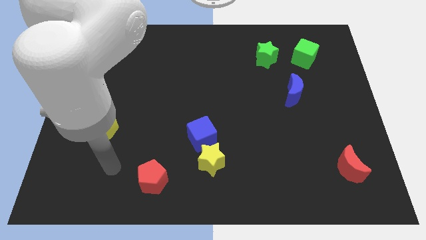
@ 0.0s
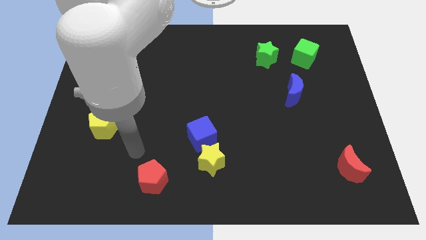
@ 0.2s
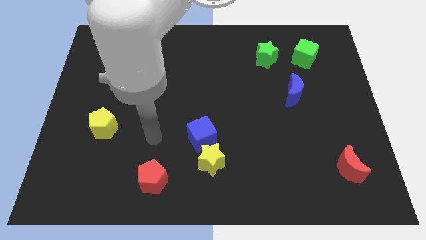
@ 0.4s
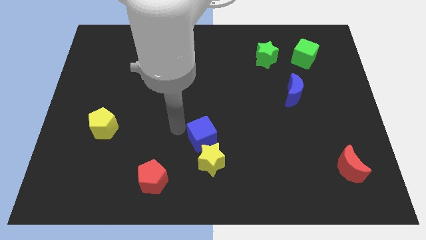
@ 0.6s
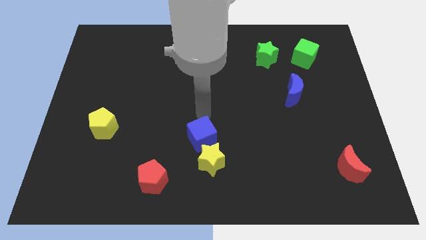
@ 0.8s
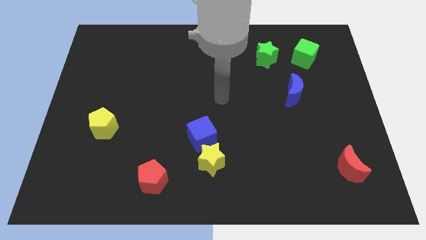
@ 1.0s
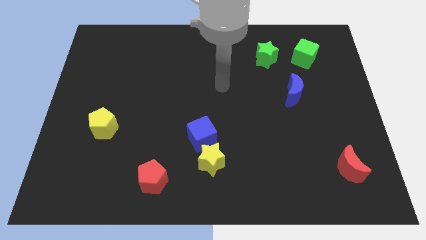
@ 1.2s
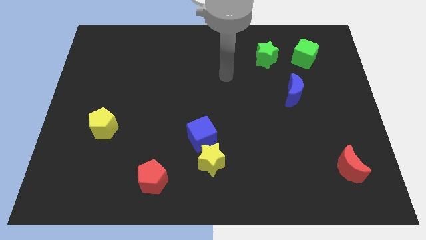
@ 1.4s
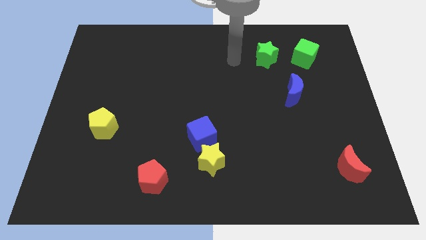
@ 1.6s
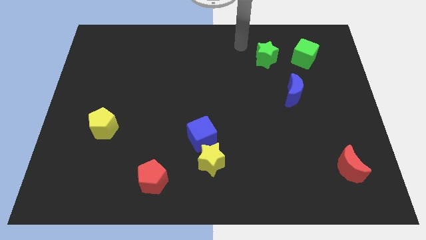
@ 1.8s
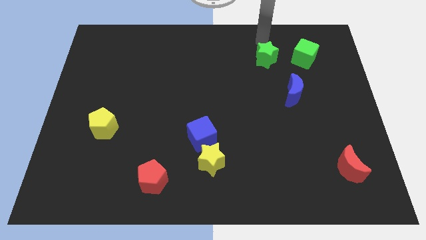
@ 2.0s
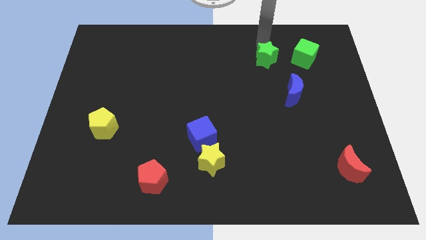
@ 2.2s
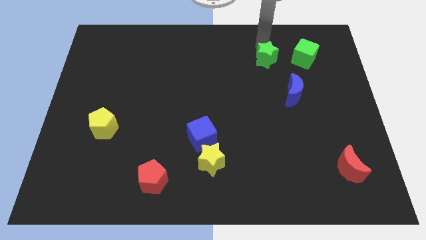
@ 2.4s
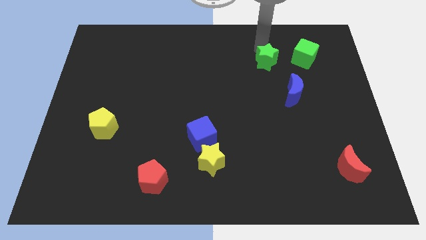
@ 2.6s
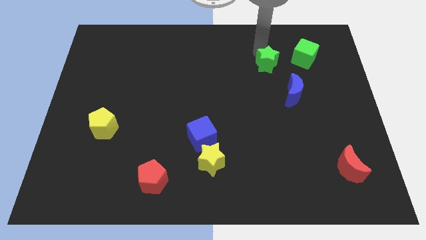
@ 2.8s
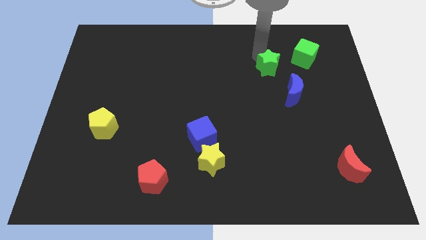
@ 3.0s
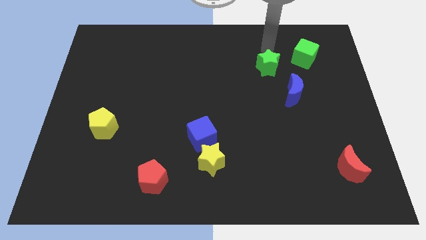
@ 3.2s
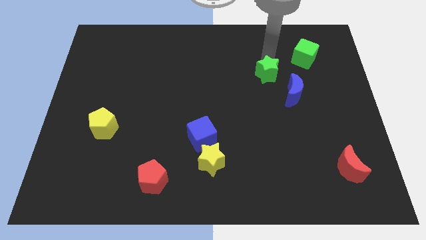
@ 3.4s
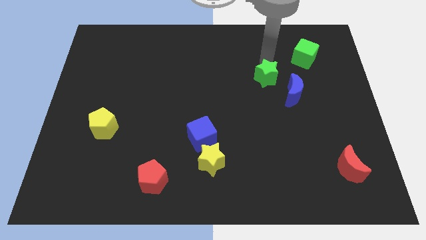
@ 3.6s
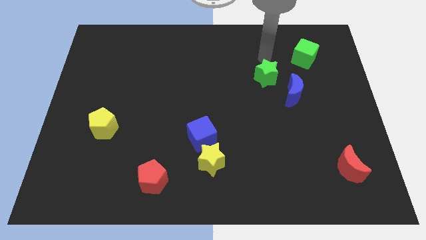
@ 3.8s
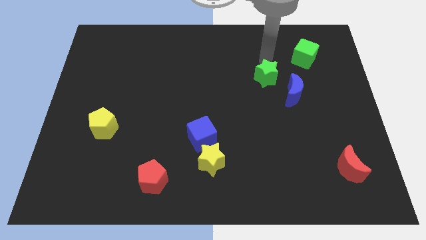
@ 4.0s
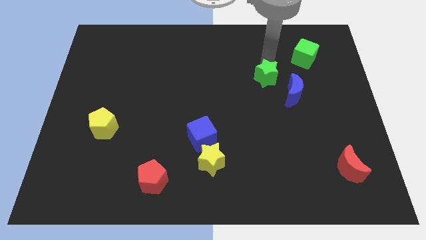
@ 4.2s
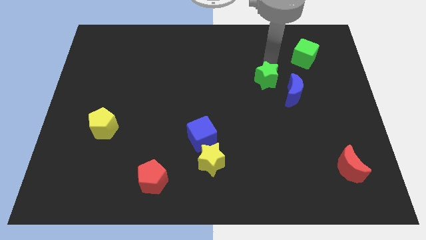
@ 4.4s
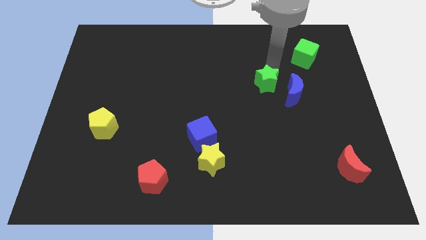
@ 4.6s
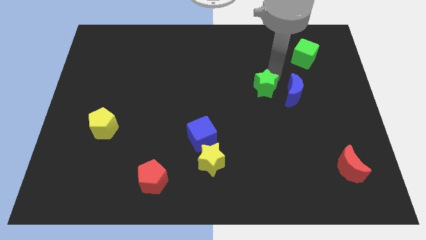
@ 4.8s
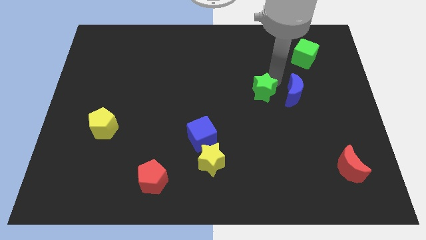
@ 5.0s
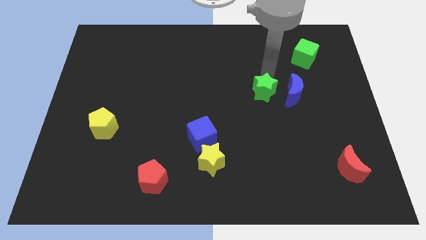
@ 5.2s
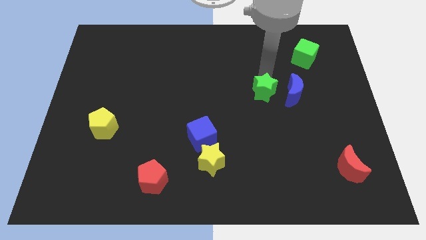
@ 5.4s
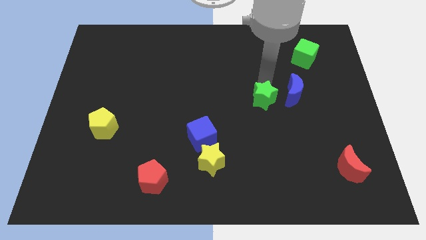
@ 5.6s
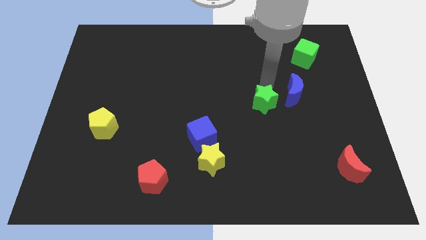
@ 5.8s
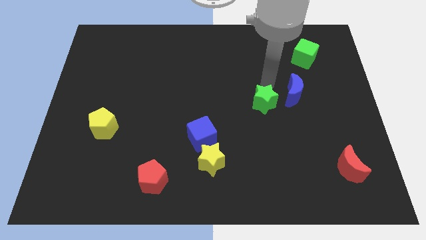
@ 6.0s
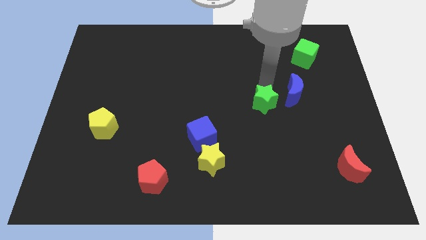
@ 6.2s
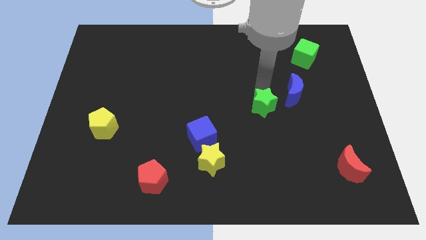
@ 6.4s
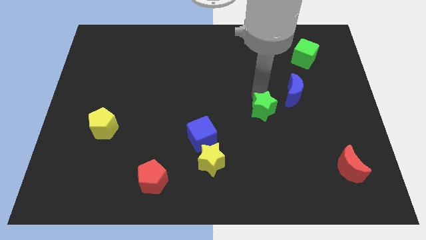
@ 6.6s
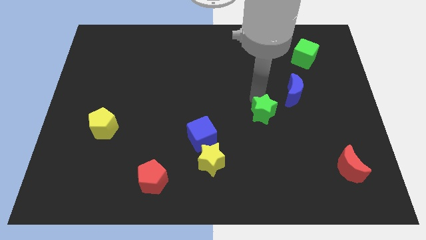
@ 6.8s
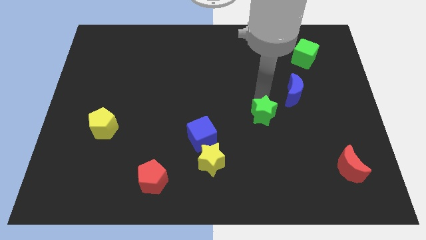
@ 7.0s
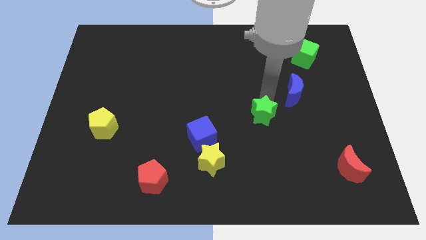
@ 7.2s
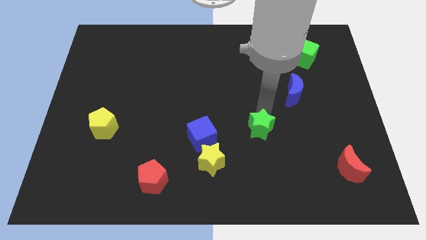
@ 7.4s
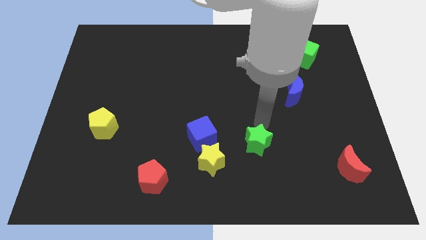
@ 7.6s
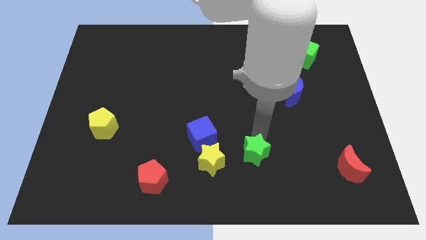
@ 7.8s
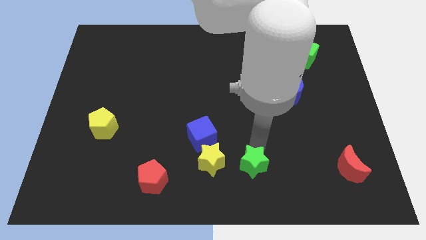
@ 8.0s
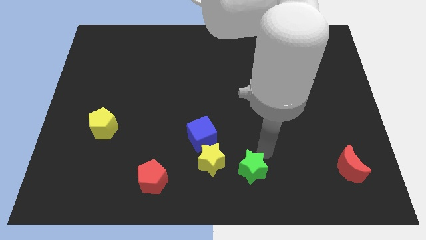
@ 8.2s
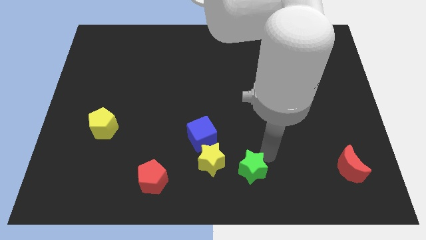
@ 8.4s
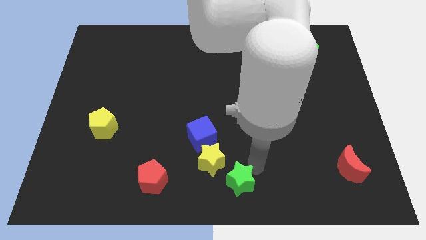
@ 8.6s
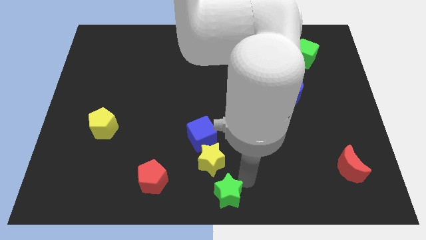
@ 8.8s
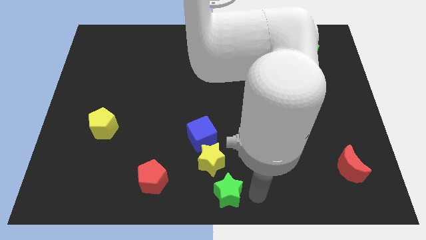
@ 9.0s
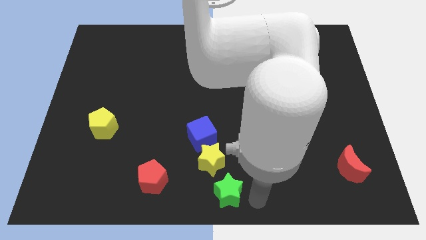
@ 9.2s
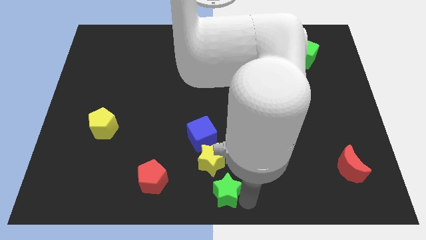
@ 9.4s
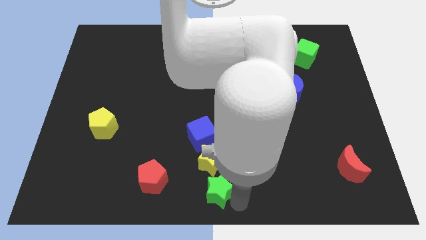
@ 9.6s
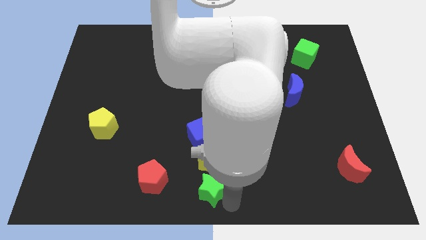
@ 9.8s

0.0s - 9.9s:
slide the green star to the bottom left side of the yellow star

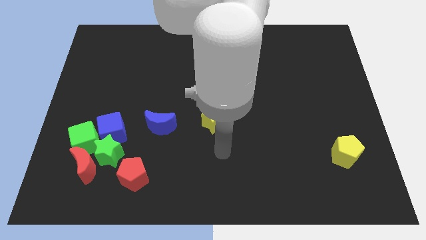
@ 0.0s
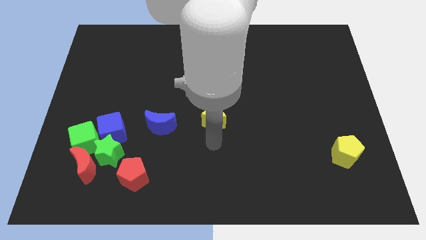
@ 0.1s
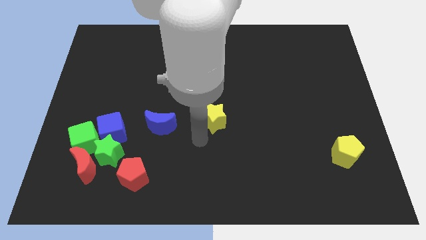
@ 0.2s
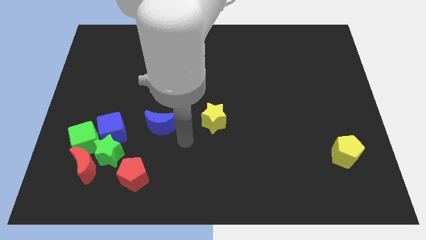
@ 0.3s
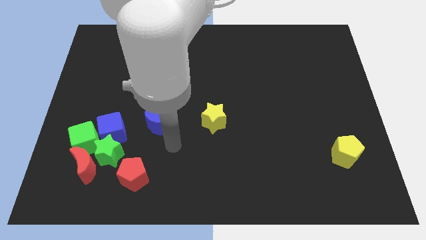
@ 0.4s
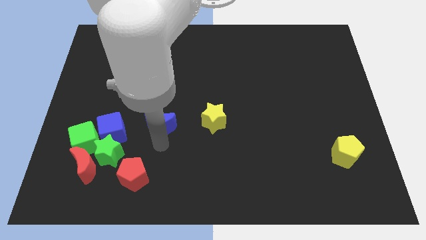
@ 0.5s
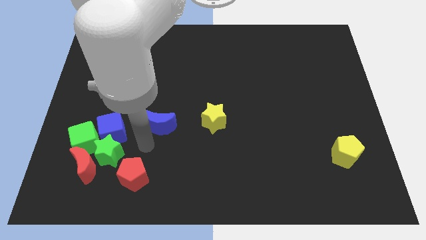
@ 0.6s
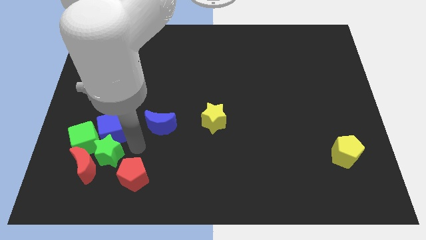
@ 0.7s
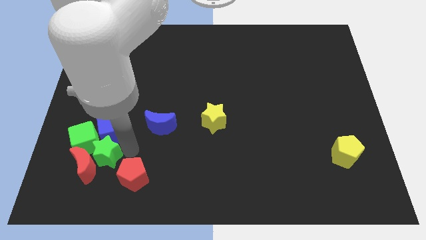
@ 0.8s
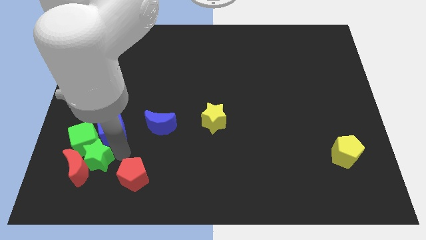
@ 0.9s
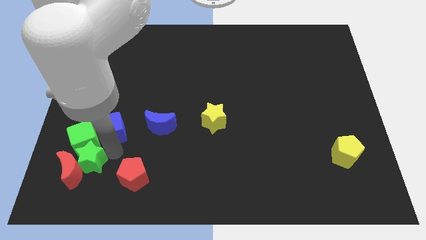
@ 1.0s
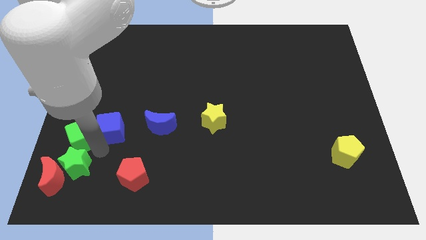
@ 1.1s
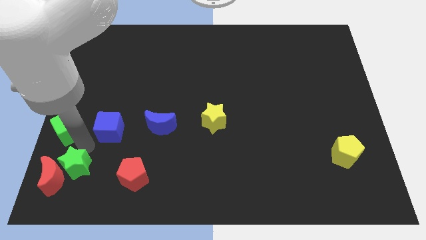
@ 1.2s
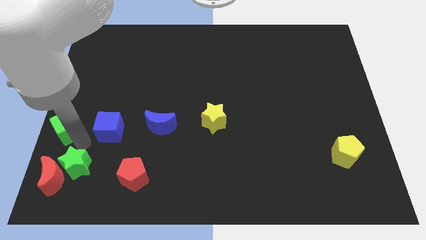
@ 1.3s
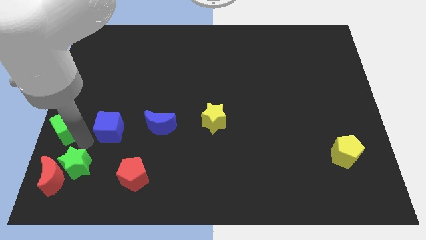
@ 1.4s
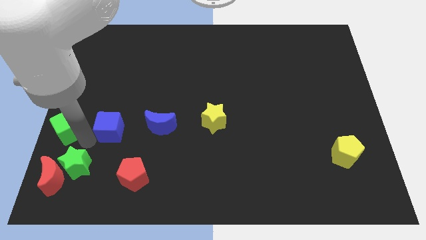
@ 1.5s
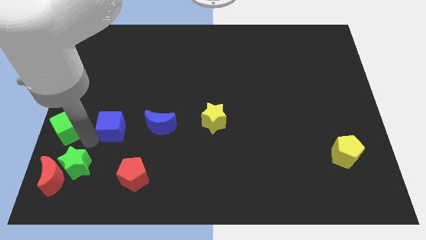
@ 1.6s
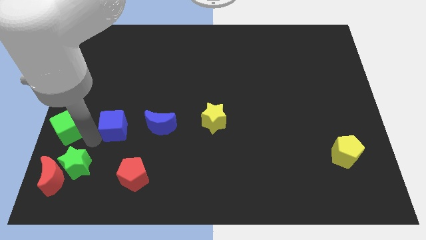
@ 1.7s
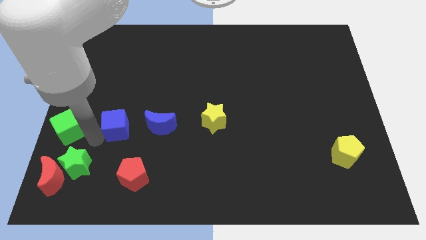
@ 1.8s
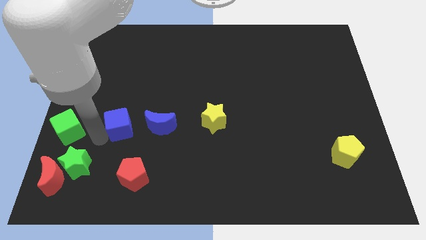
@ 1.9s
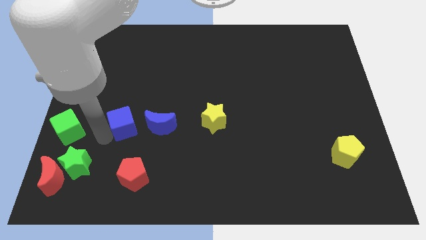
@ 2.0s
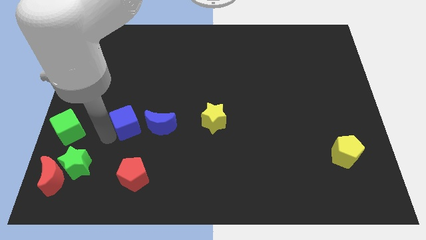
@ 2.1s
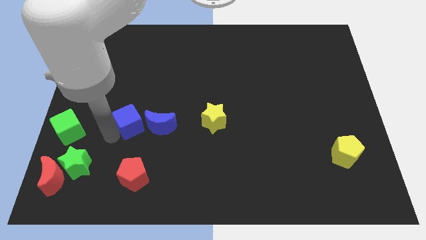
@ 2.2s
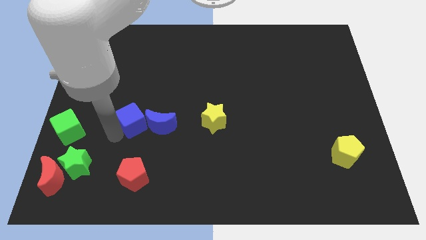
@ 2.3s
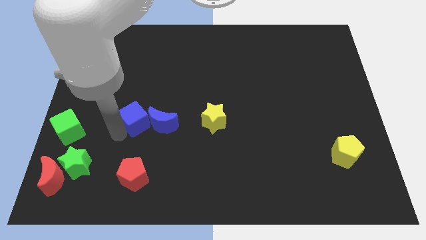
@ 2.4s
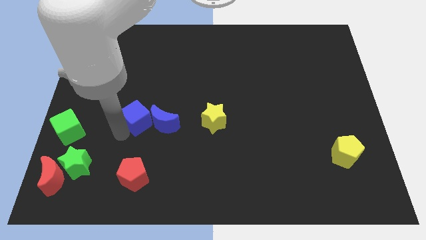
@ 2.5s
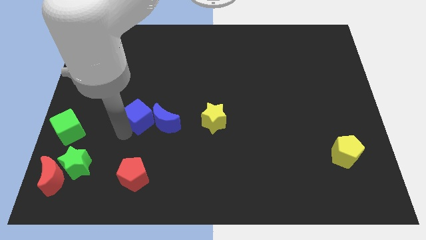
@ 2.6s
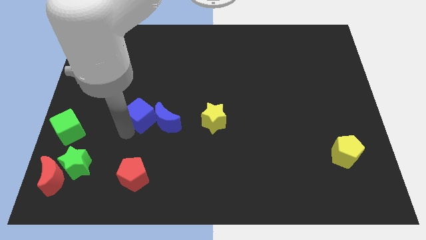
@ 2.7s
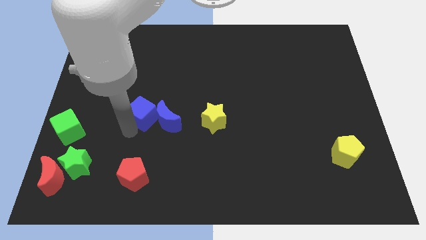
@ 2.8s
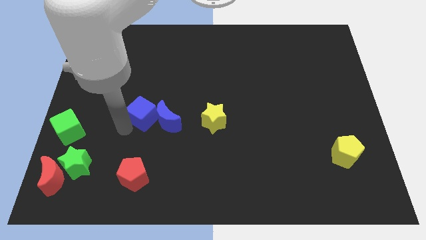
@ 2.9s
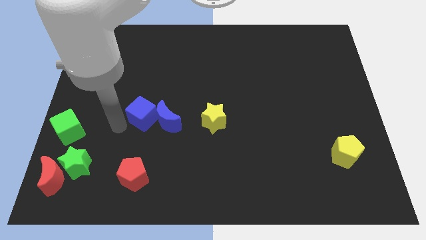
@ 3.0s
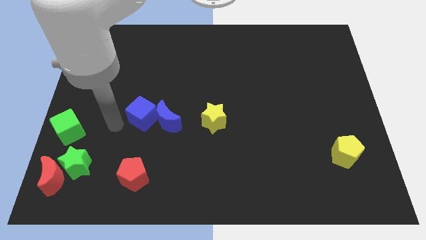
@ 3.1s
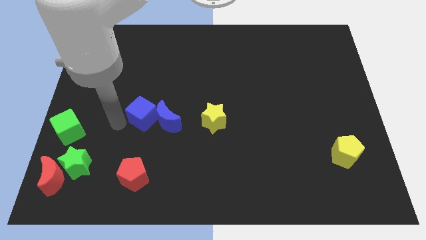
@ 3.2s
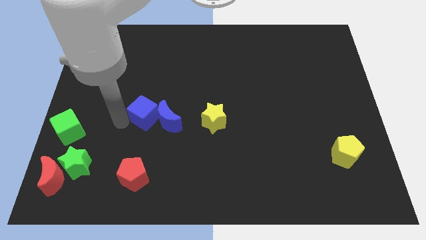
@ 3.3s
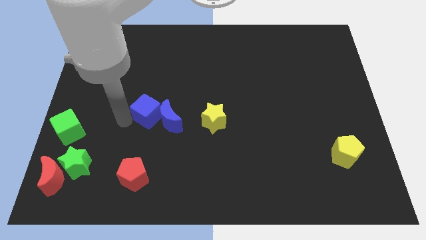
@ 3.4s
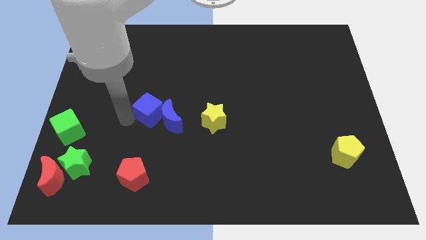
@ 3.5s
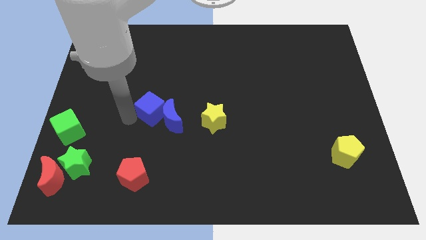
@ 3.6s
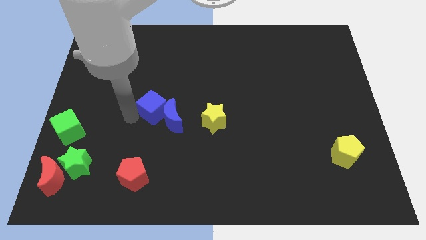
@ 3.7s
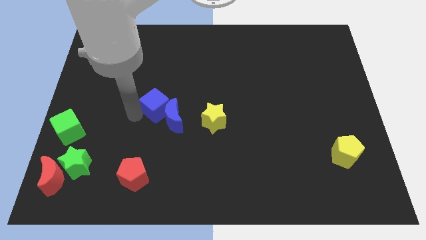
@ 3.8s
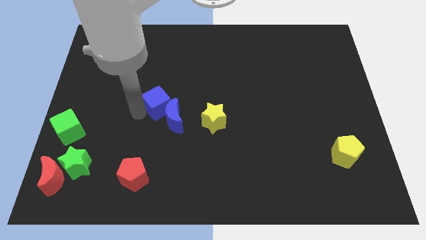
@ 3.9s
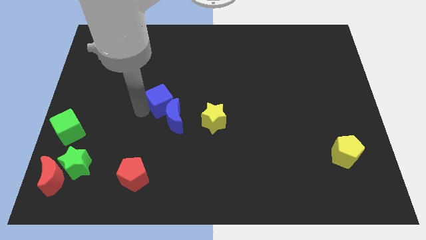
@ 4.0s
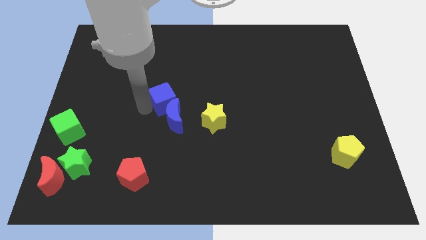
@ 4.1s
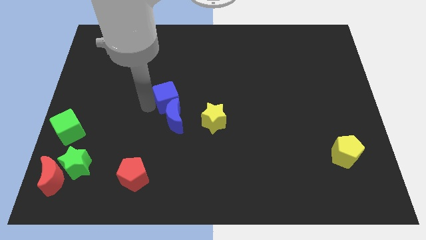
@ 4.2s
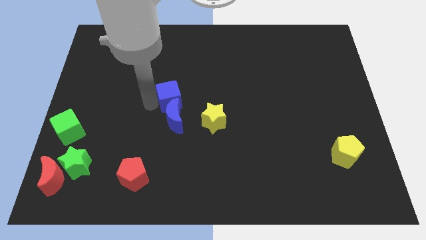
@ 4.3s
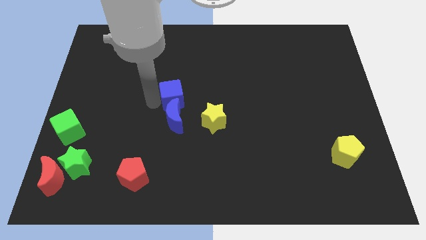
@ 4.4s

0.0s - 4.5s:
put the blue cube to the top right of the blue moon
